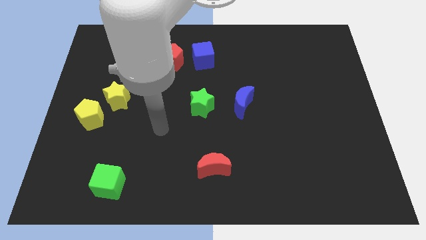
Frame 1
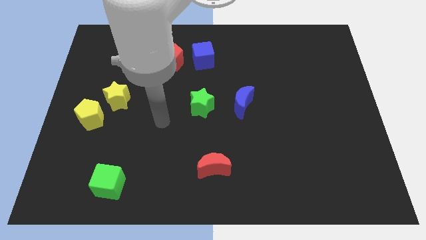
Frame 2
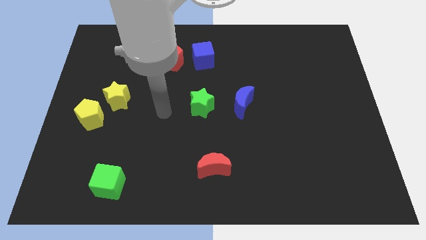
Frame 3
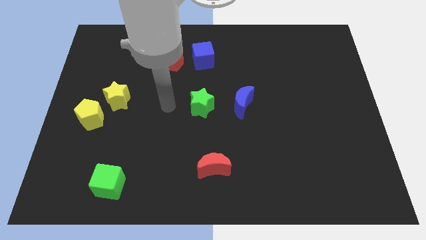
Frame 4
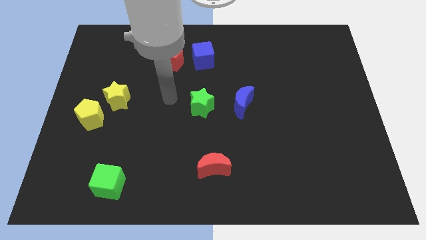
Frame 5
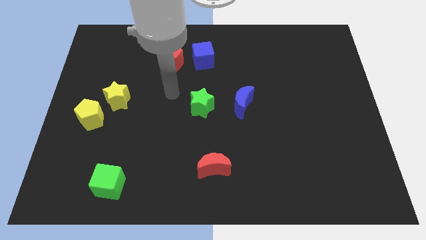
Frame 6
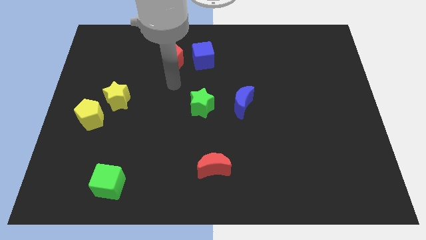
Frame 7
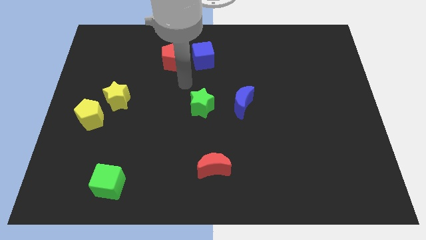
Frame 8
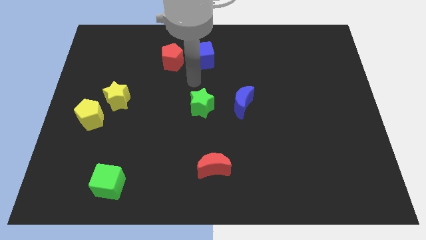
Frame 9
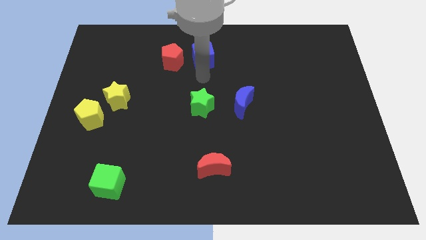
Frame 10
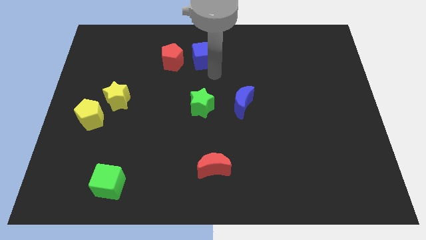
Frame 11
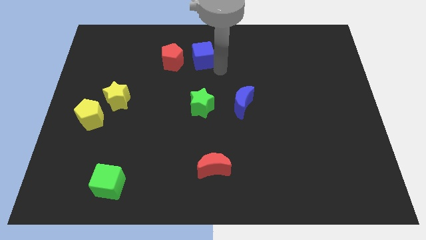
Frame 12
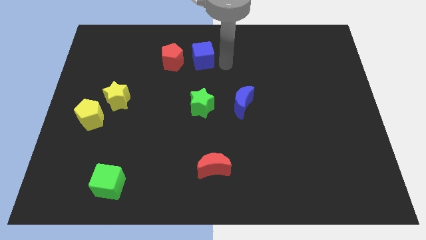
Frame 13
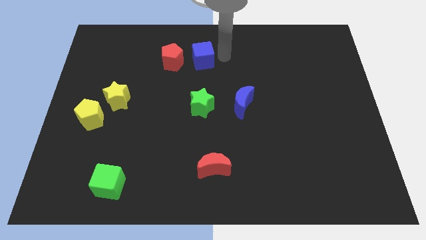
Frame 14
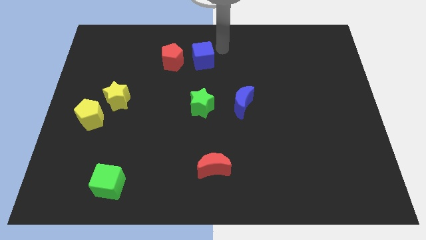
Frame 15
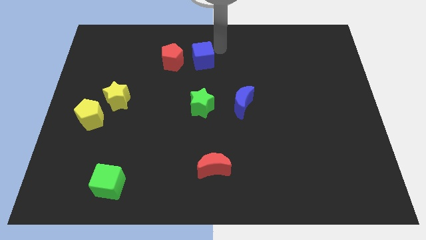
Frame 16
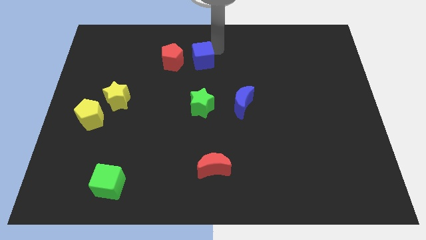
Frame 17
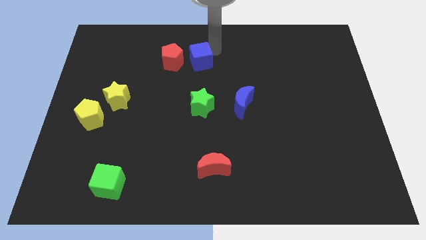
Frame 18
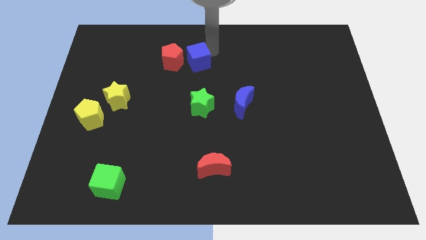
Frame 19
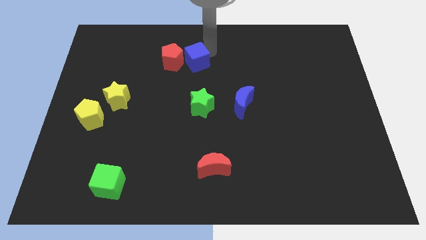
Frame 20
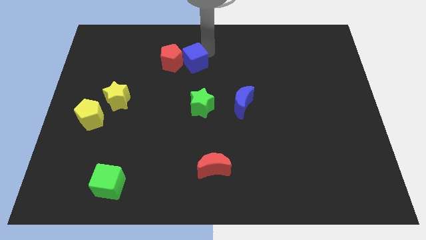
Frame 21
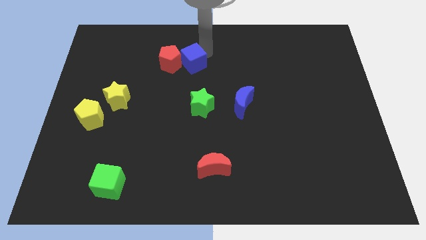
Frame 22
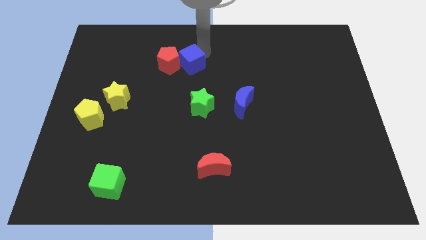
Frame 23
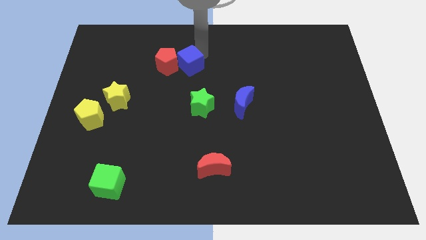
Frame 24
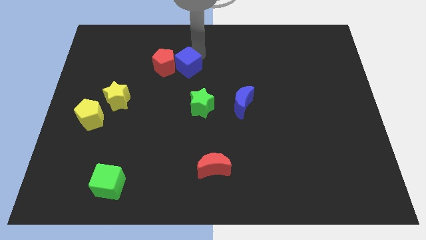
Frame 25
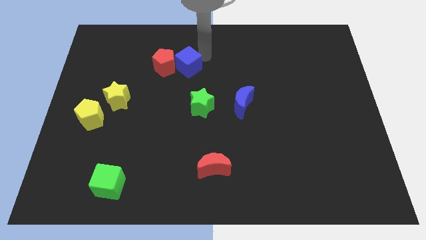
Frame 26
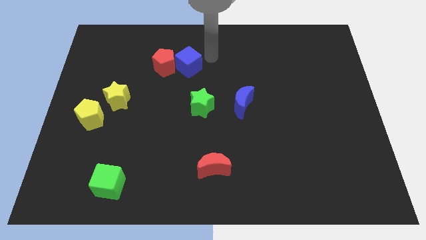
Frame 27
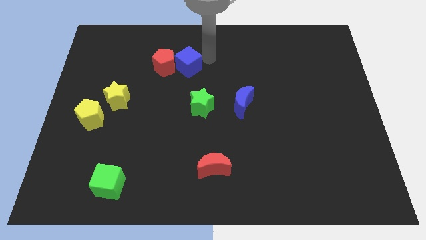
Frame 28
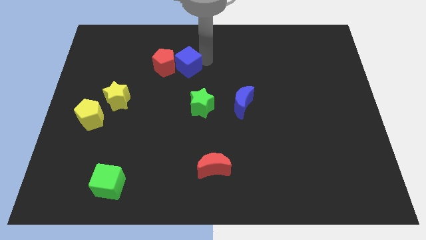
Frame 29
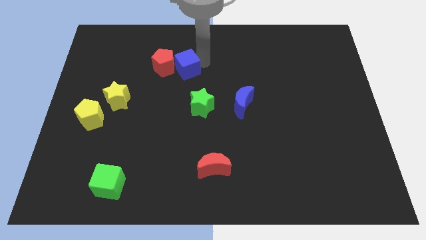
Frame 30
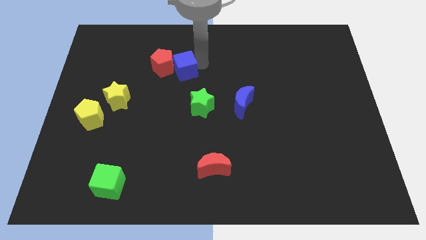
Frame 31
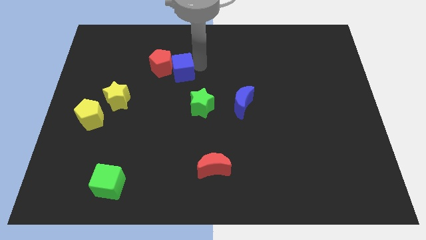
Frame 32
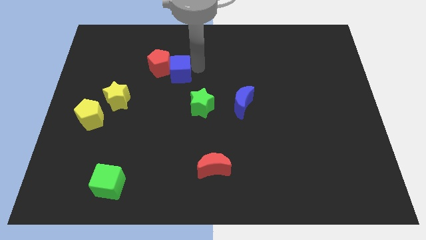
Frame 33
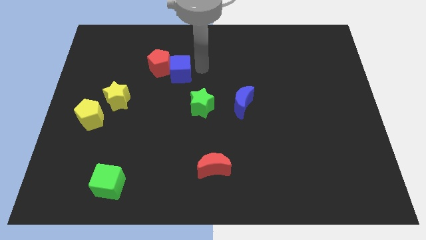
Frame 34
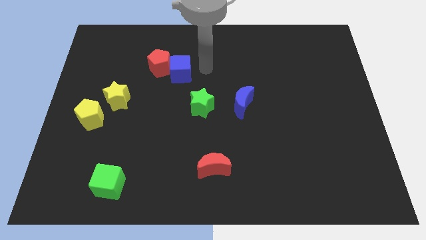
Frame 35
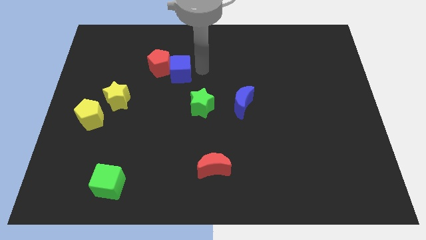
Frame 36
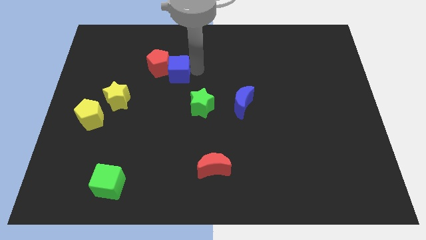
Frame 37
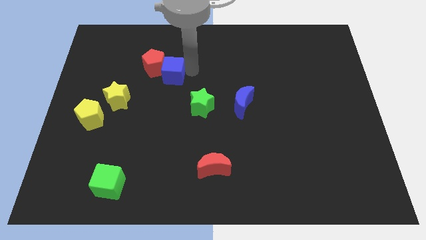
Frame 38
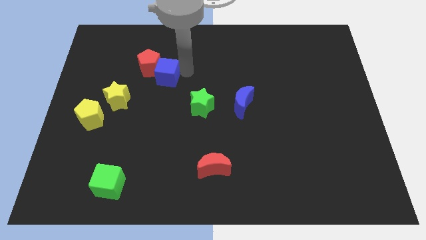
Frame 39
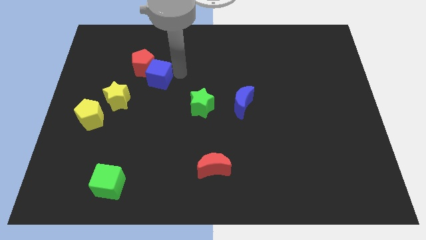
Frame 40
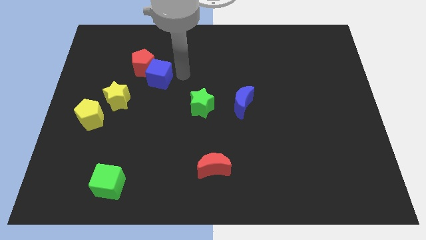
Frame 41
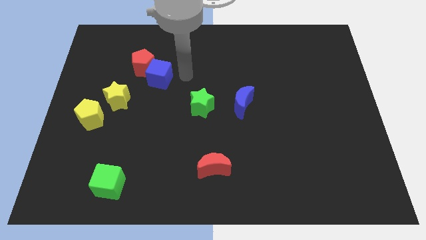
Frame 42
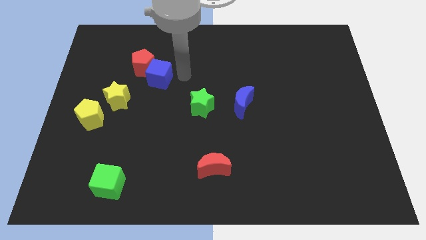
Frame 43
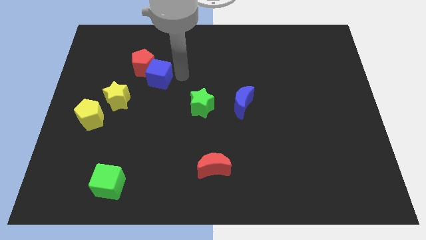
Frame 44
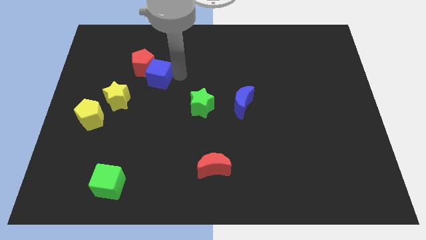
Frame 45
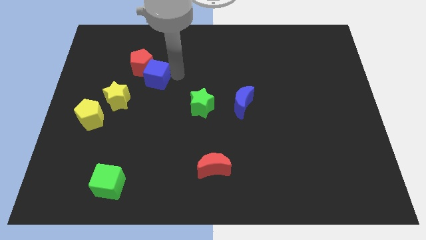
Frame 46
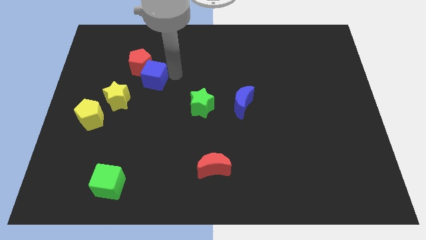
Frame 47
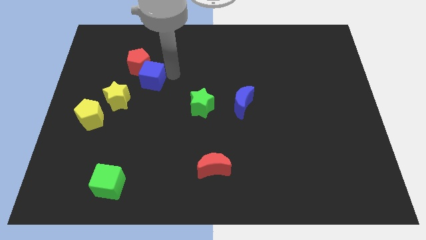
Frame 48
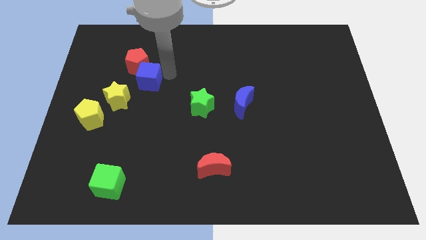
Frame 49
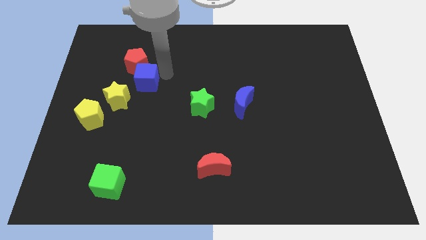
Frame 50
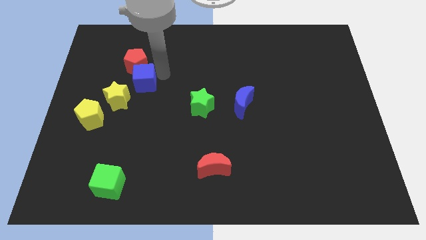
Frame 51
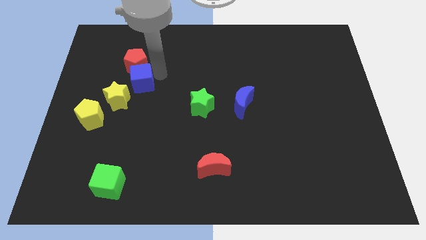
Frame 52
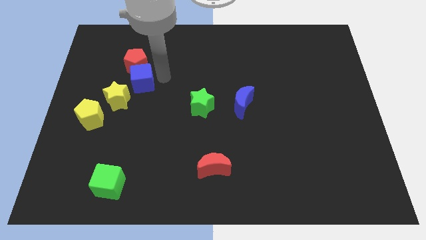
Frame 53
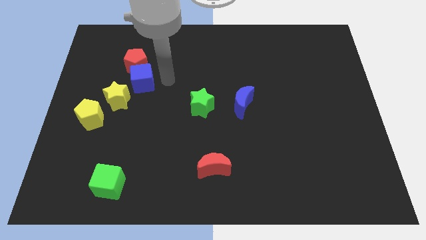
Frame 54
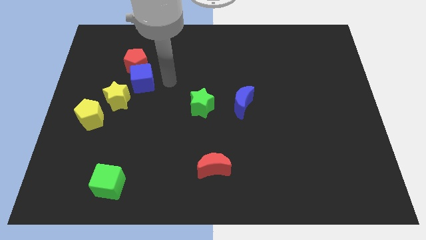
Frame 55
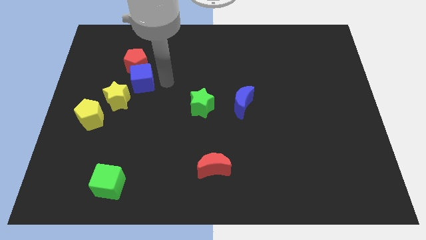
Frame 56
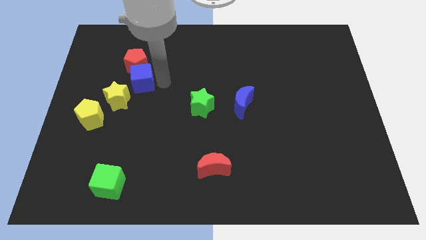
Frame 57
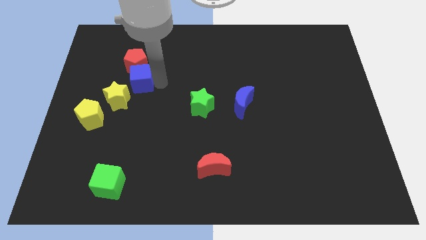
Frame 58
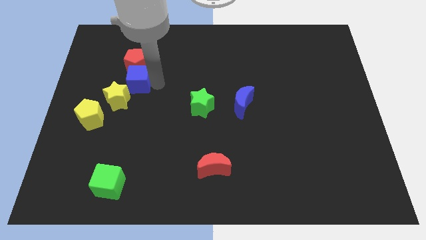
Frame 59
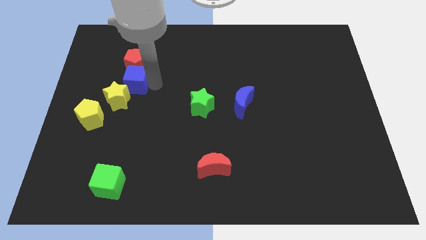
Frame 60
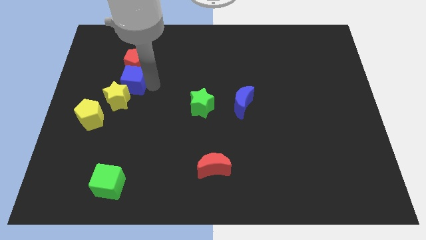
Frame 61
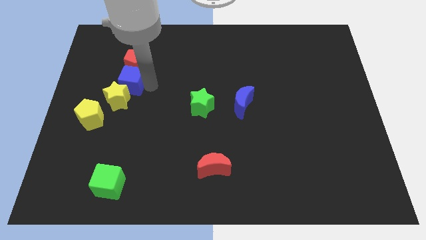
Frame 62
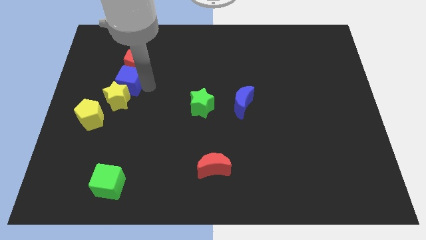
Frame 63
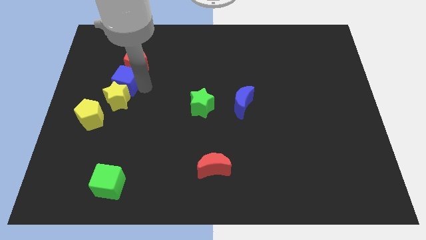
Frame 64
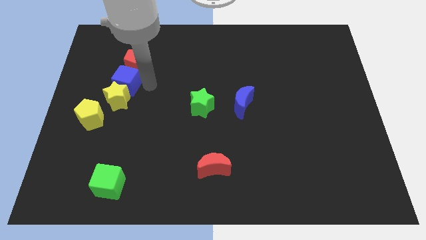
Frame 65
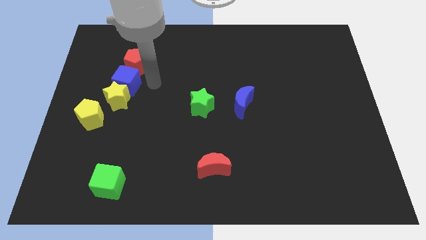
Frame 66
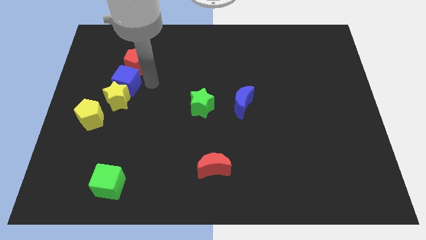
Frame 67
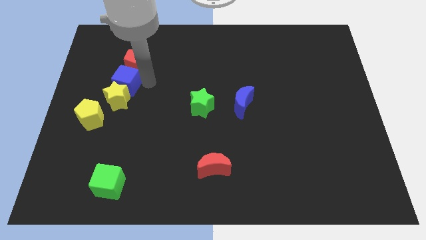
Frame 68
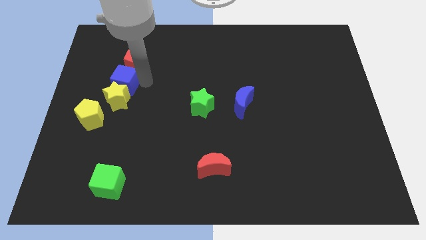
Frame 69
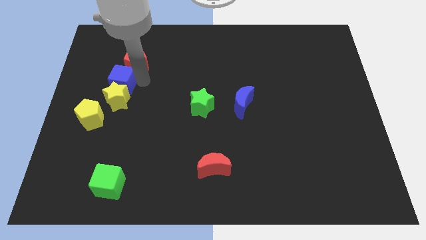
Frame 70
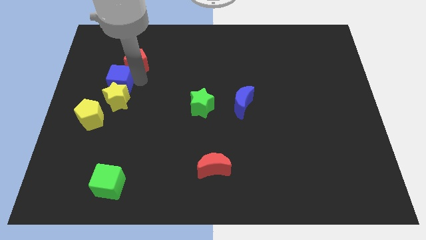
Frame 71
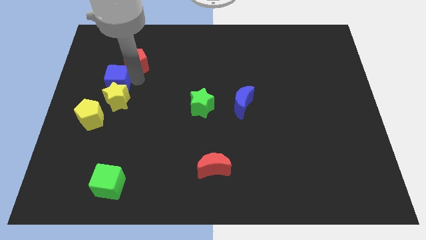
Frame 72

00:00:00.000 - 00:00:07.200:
push the blue cube to the top side of the yellow pentagon

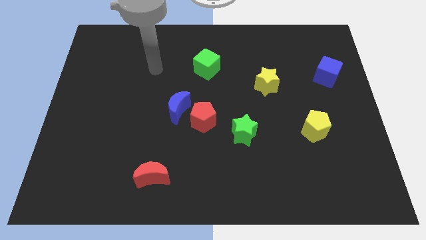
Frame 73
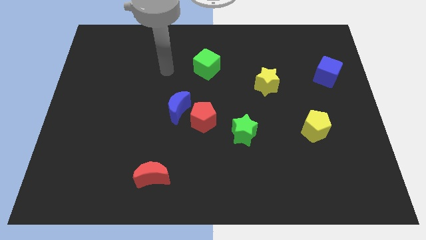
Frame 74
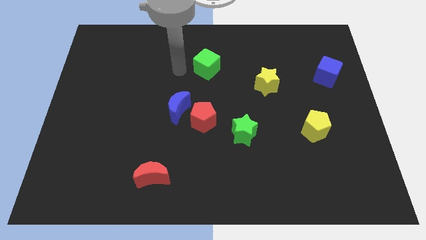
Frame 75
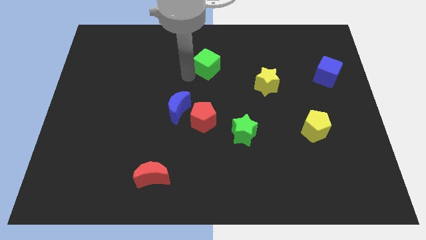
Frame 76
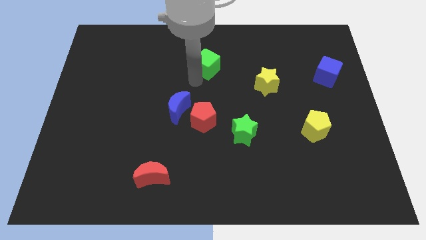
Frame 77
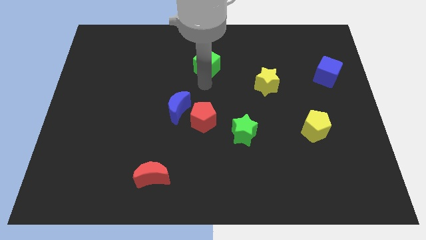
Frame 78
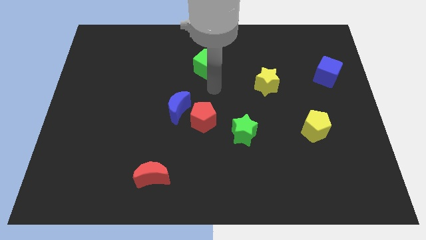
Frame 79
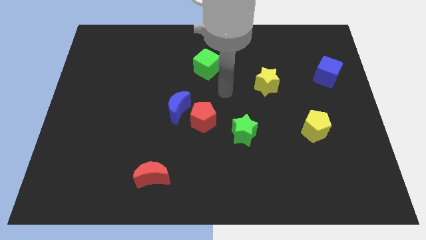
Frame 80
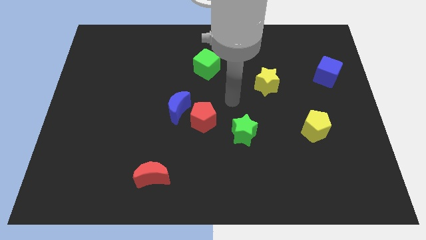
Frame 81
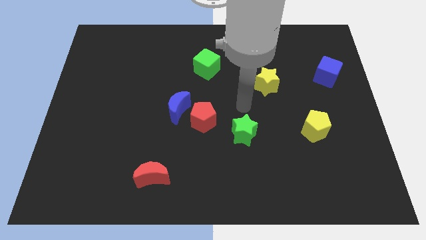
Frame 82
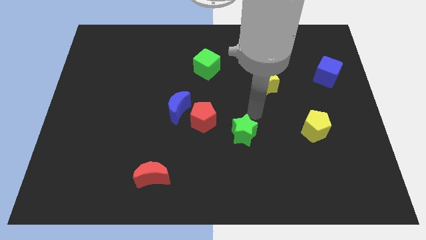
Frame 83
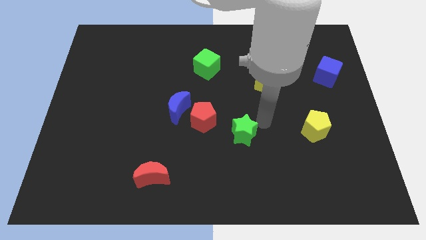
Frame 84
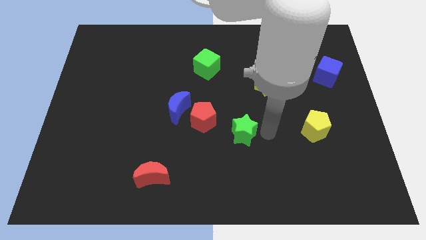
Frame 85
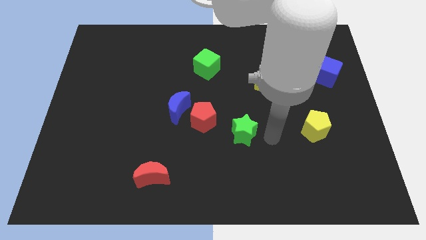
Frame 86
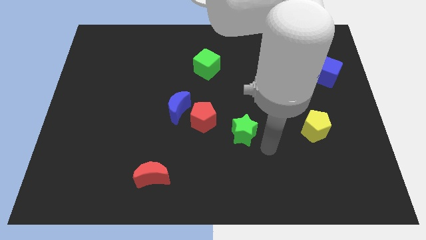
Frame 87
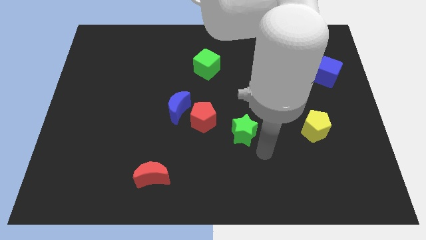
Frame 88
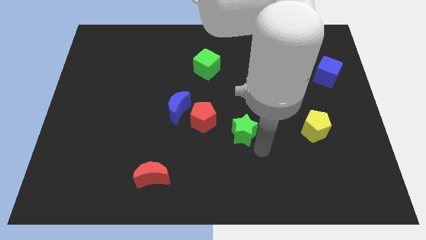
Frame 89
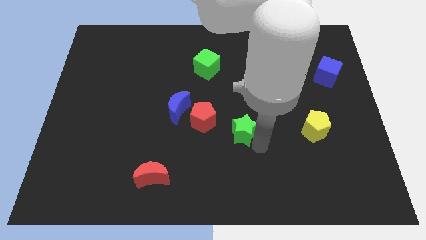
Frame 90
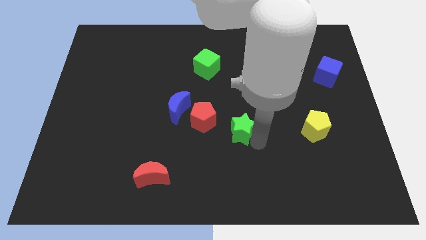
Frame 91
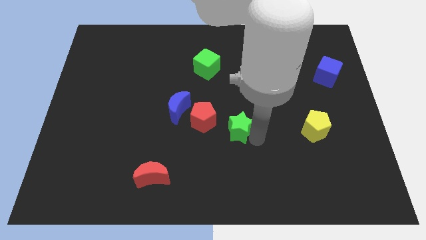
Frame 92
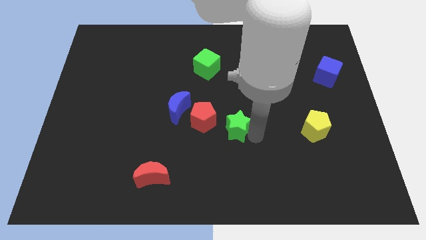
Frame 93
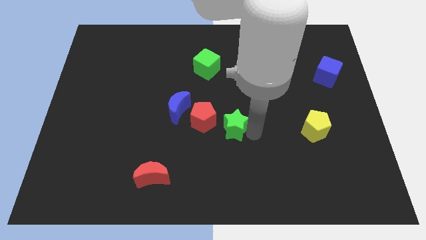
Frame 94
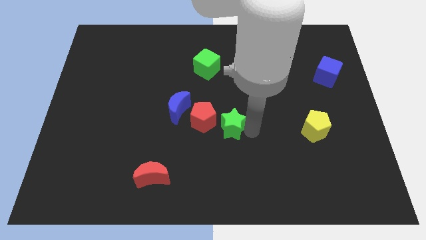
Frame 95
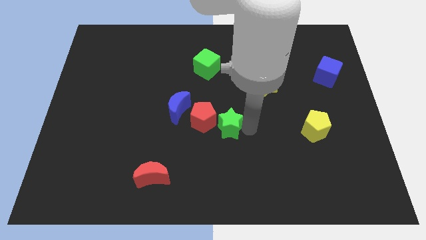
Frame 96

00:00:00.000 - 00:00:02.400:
put the green star right of the blue moon
